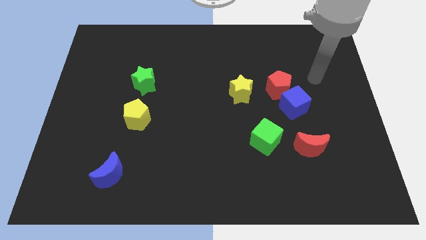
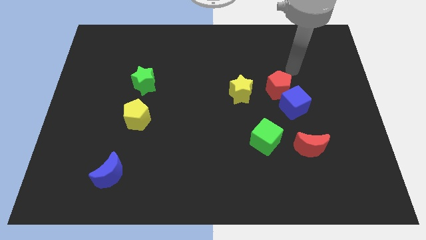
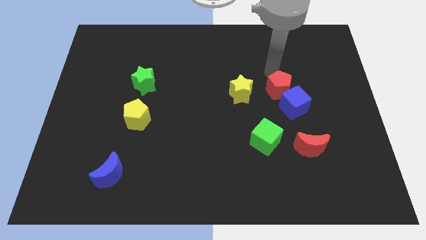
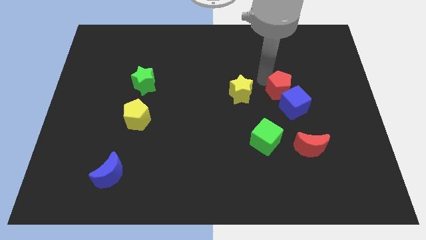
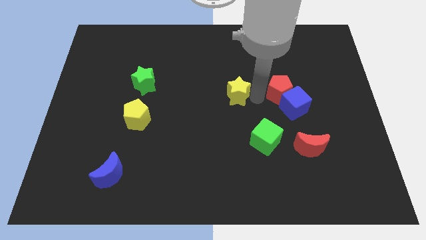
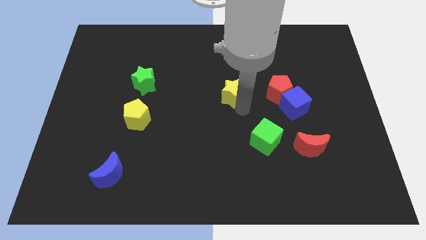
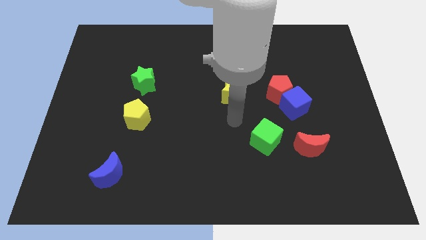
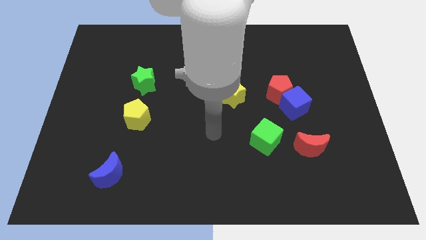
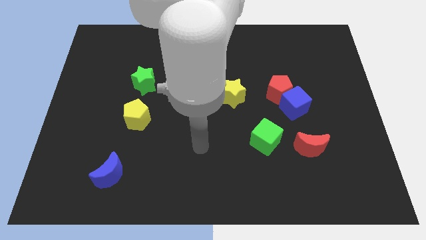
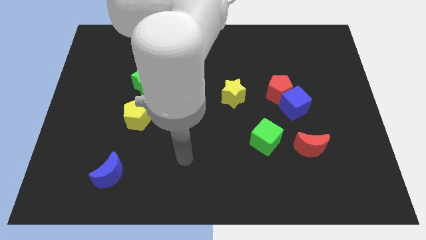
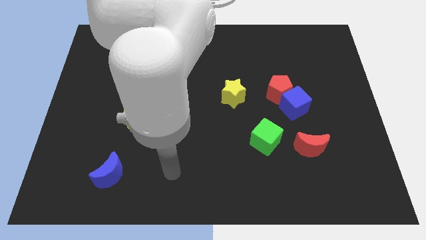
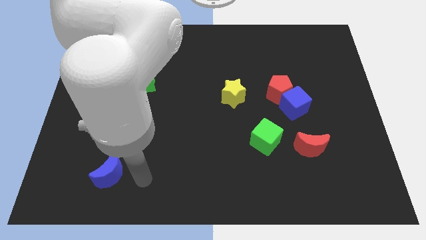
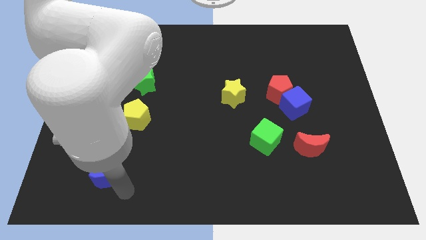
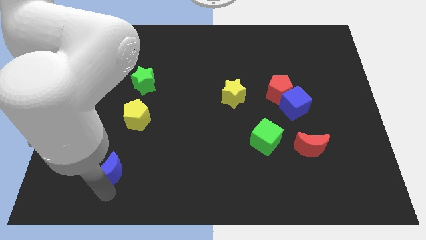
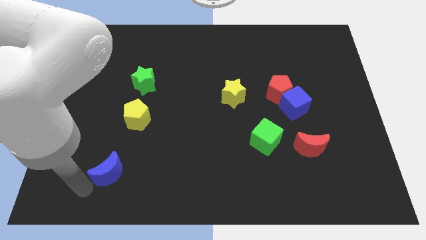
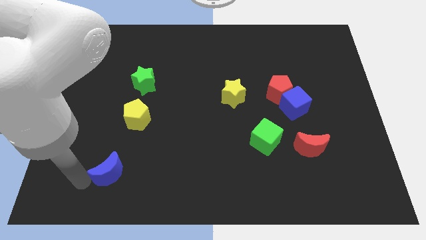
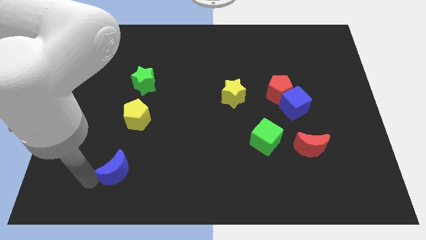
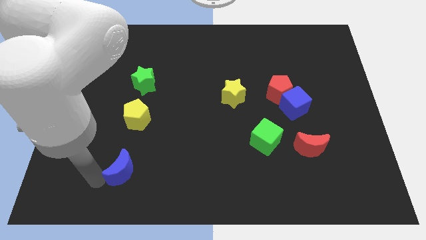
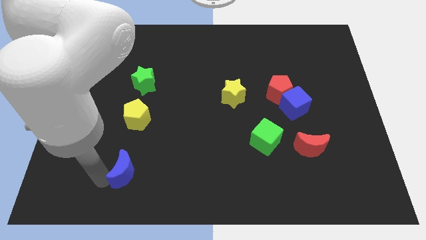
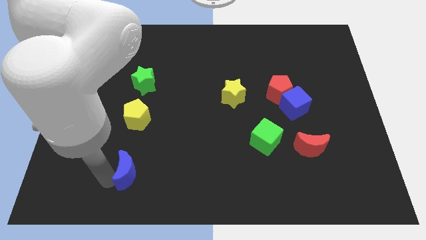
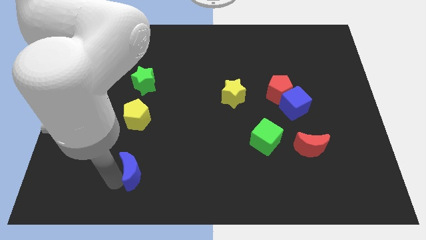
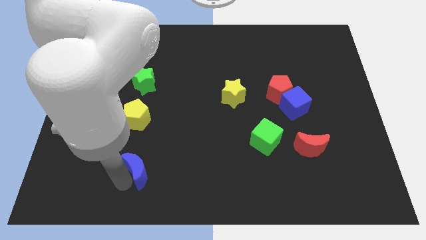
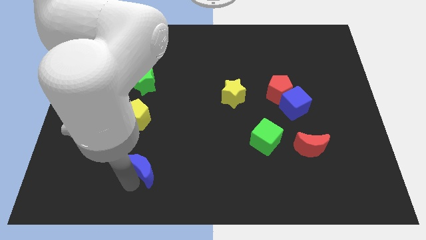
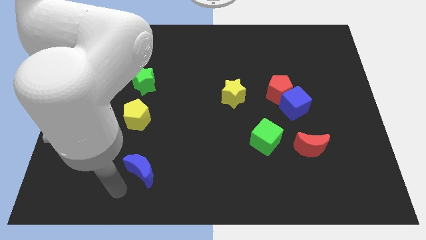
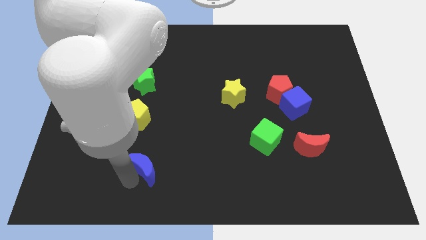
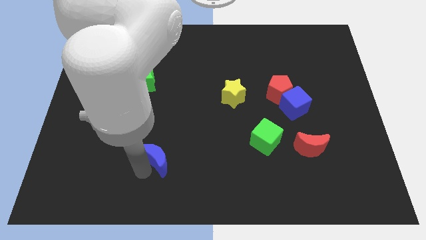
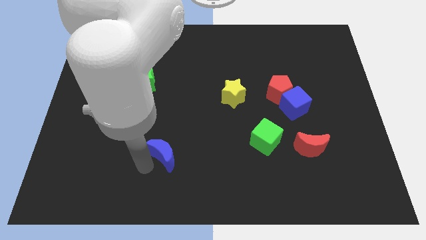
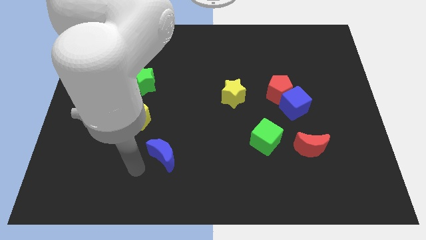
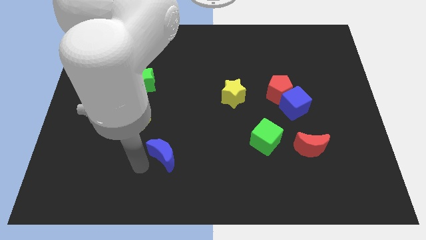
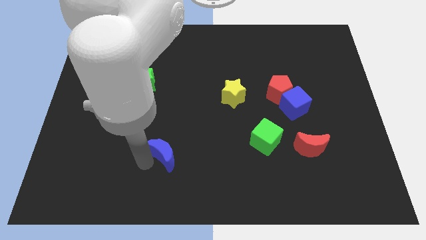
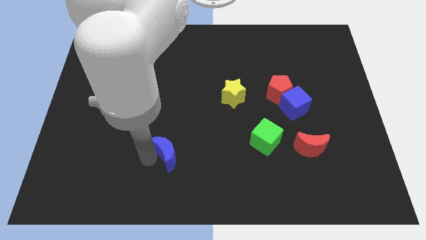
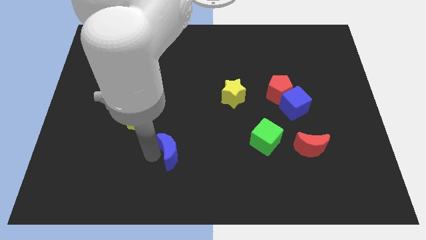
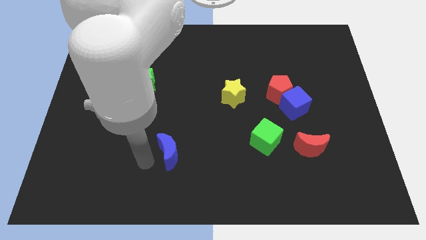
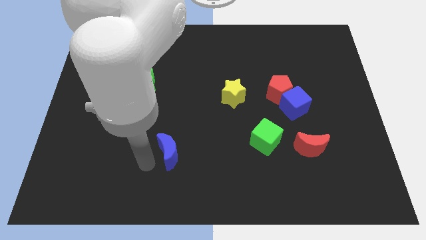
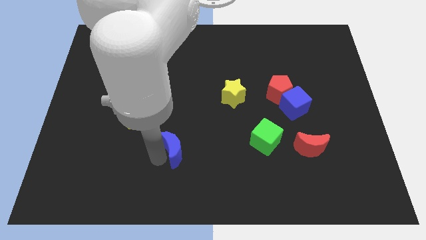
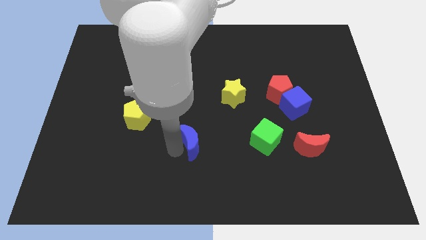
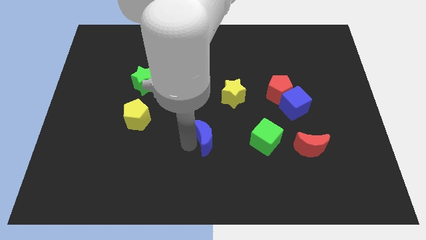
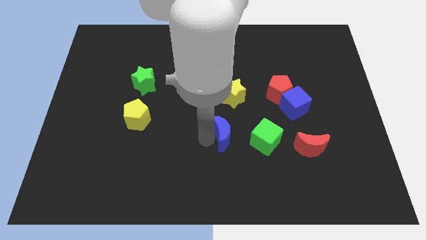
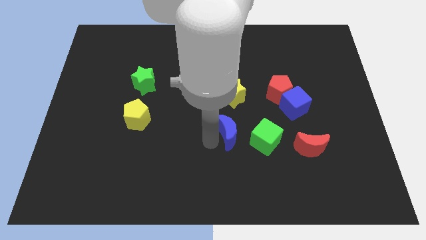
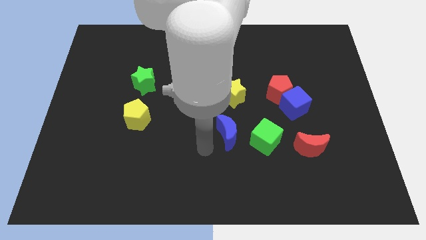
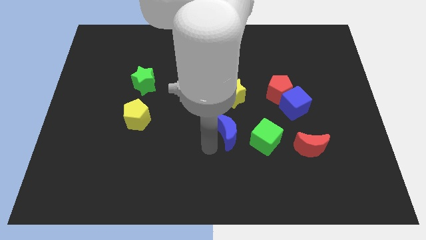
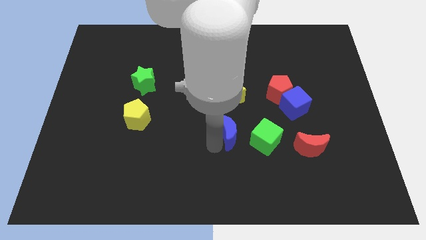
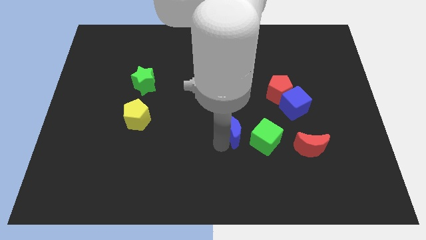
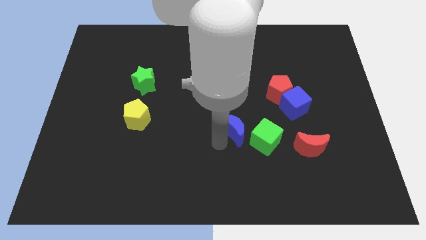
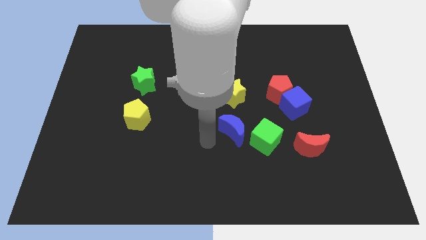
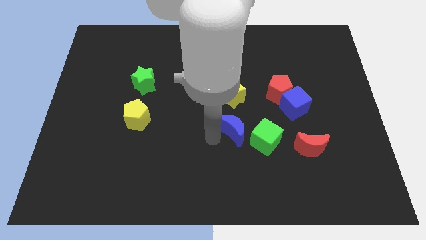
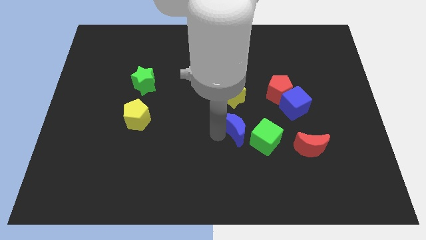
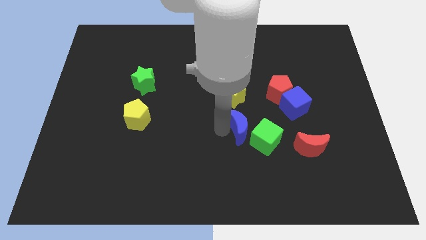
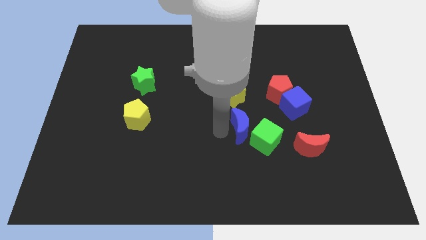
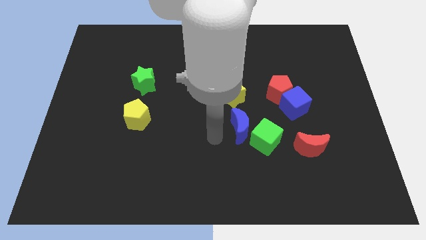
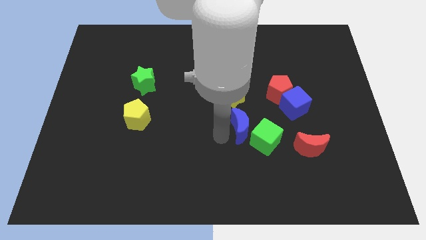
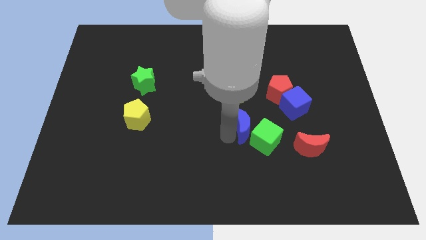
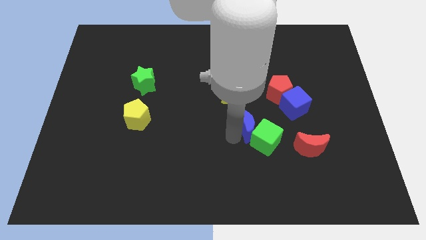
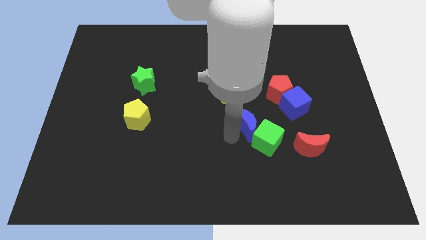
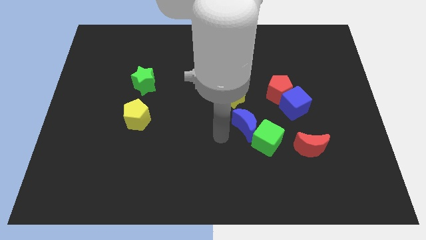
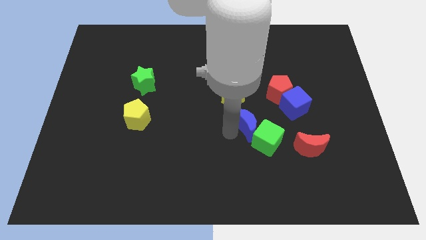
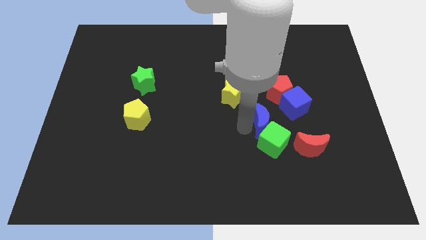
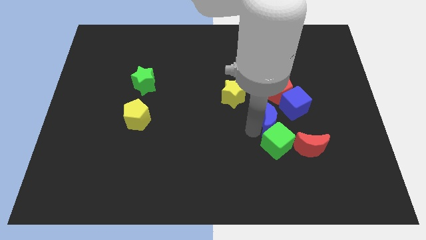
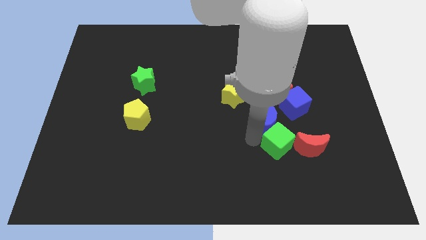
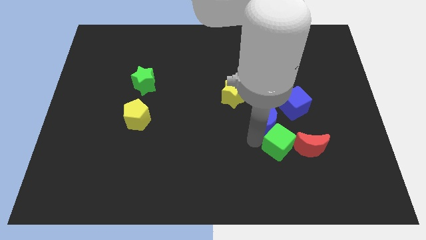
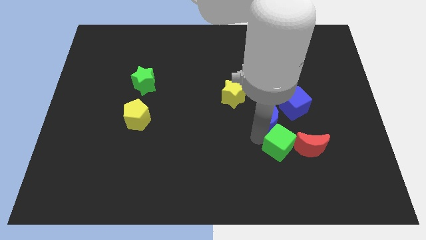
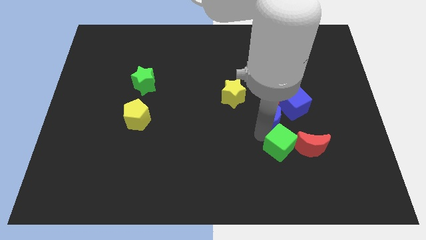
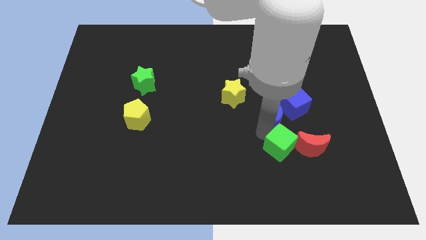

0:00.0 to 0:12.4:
move the blue moon to the blue cube

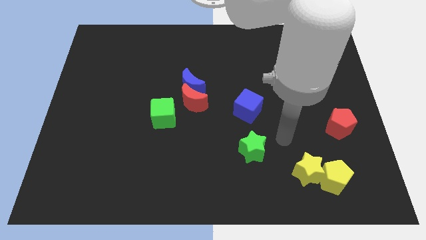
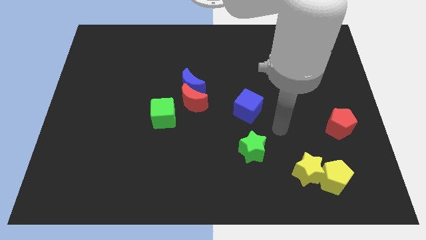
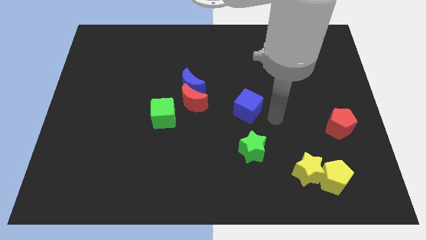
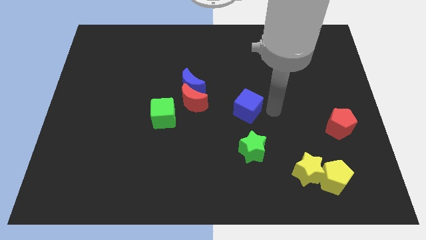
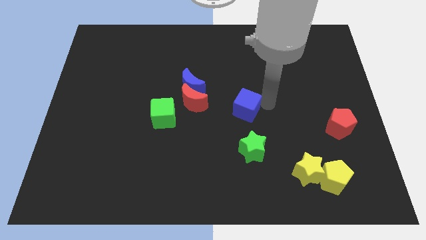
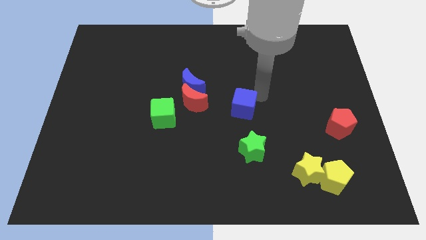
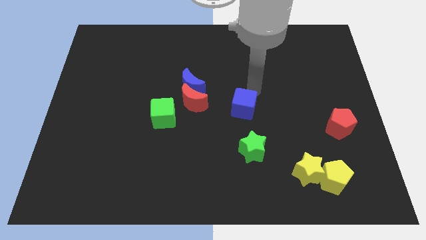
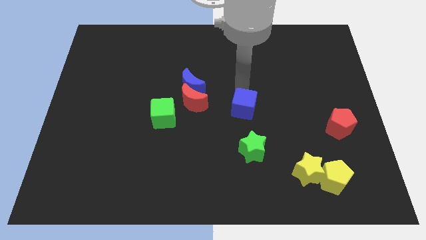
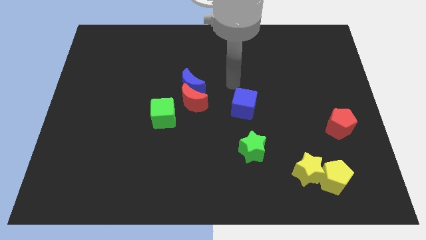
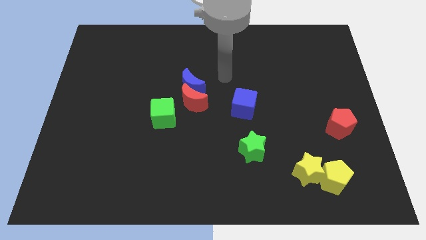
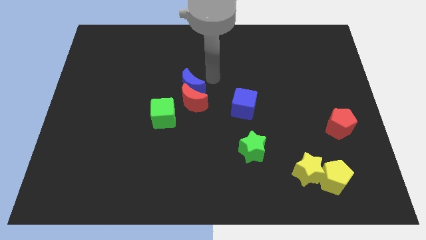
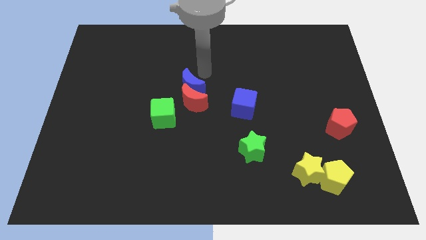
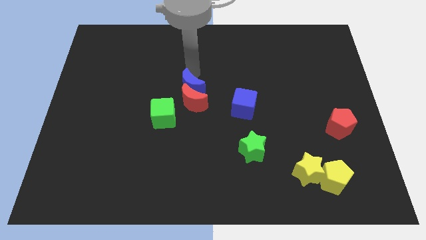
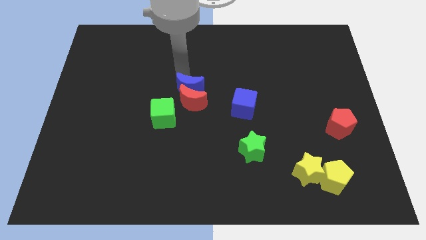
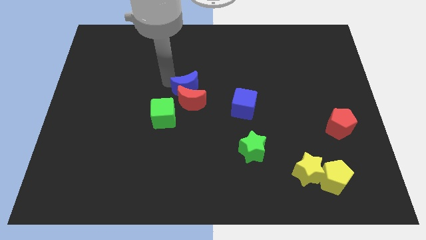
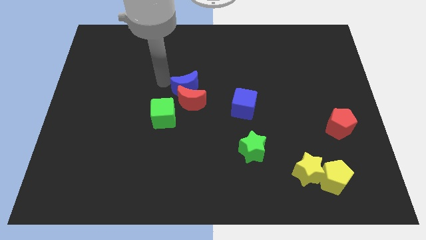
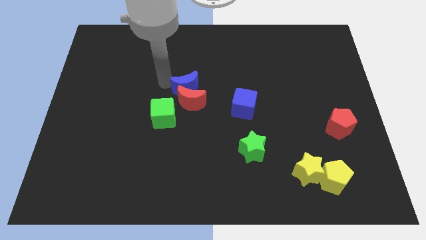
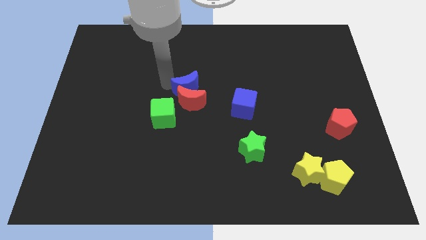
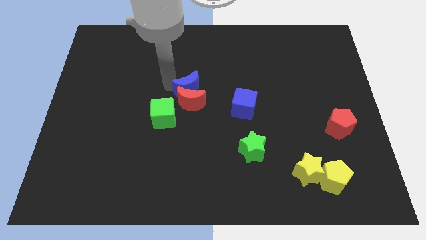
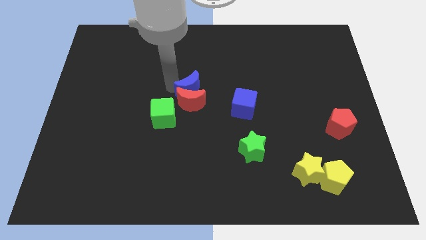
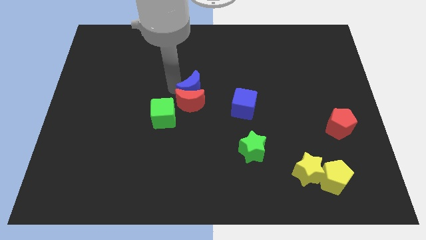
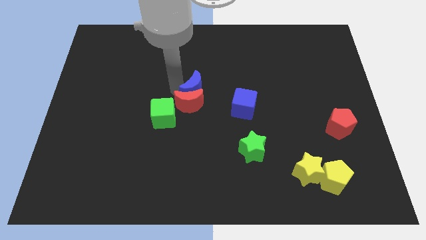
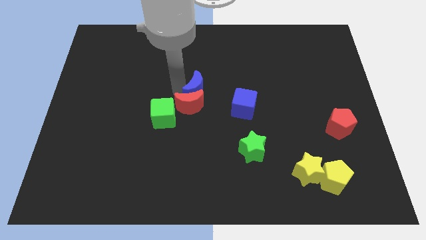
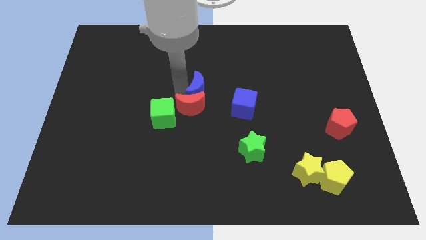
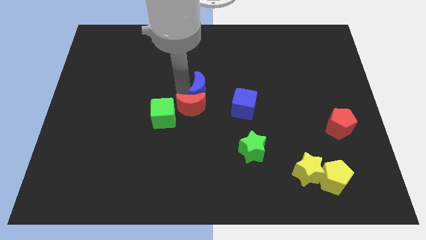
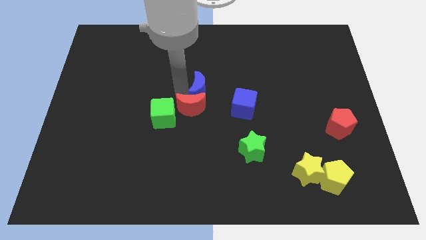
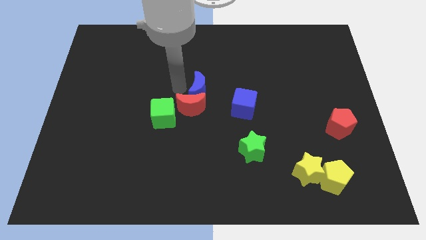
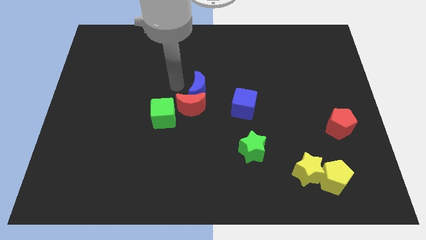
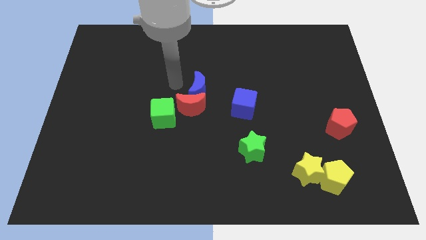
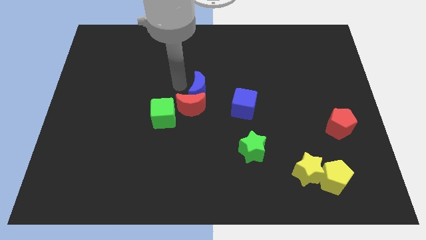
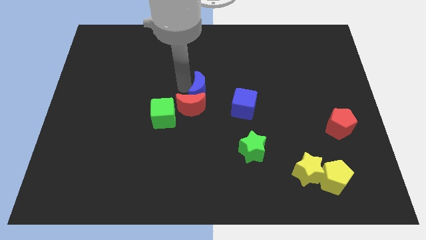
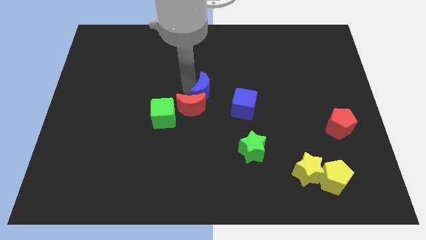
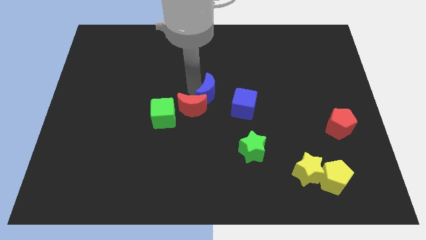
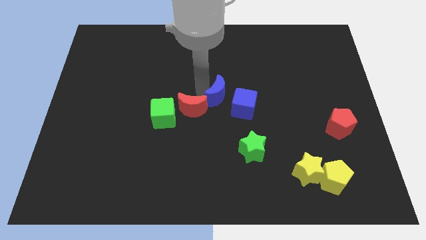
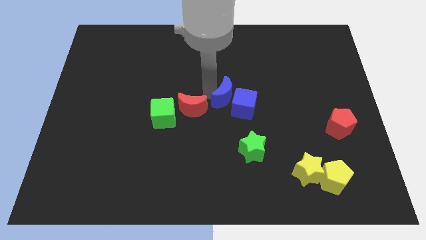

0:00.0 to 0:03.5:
push the blue moon close to the blue cube
